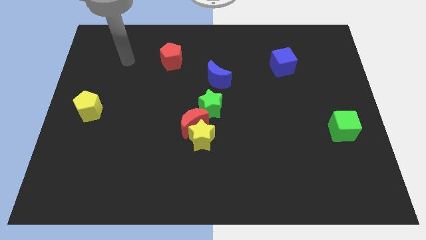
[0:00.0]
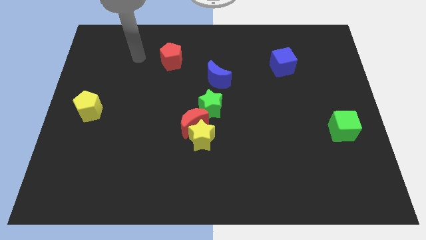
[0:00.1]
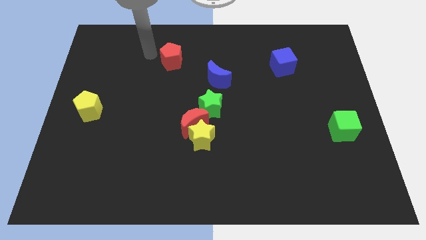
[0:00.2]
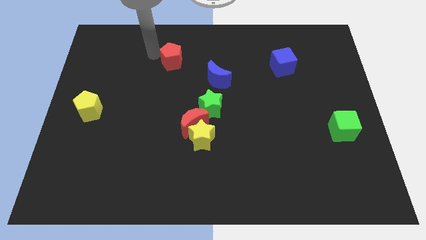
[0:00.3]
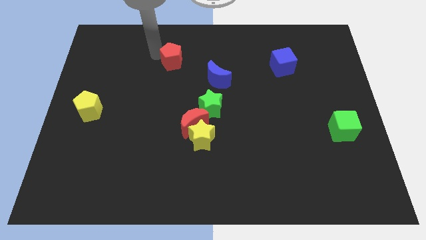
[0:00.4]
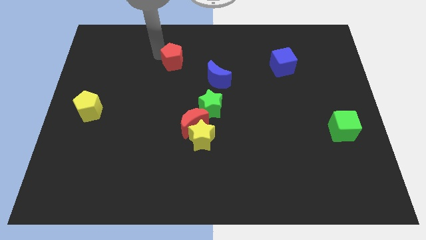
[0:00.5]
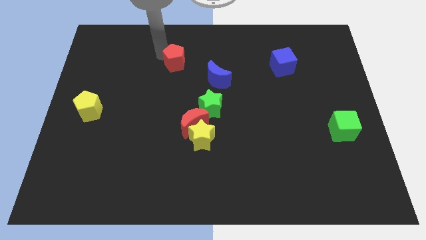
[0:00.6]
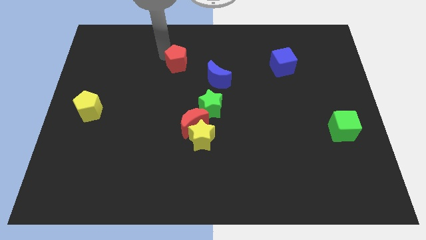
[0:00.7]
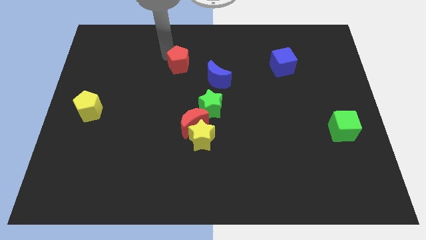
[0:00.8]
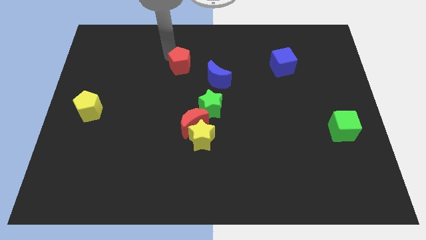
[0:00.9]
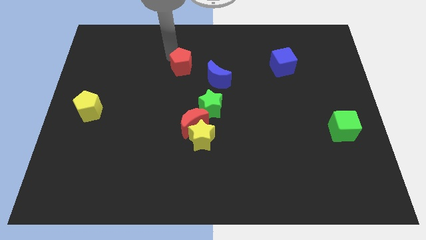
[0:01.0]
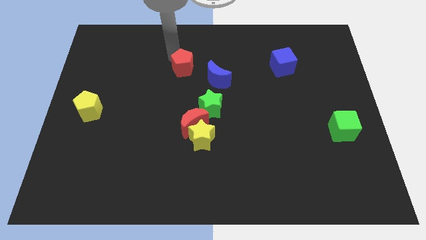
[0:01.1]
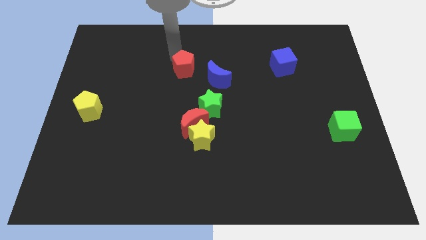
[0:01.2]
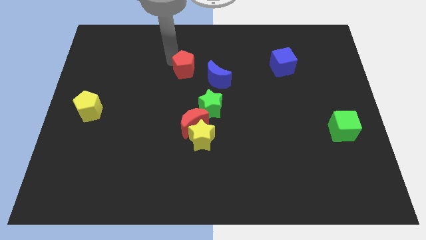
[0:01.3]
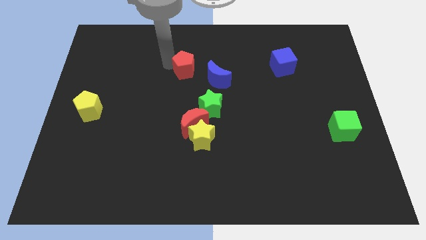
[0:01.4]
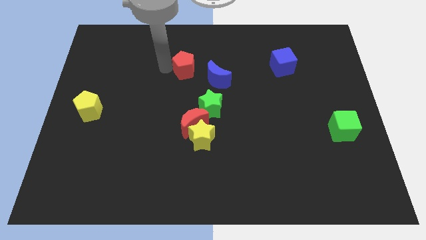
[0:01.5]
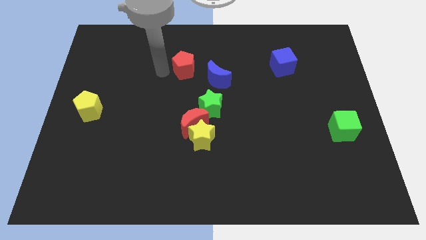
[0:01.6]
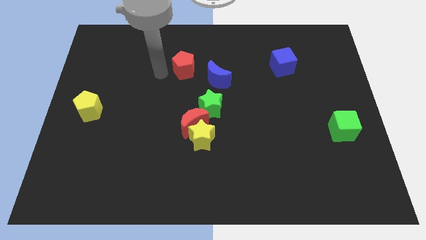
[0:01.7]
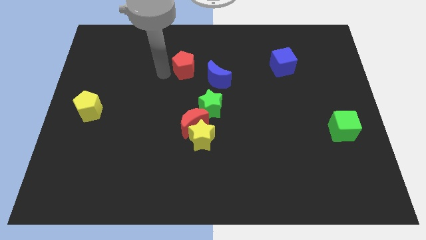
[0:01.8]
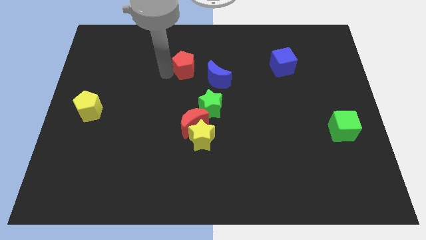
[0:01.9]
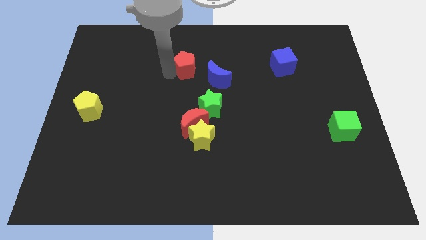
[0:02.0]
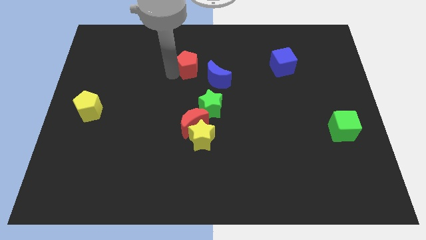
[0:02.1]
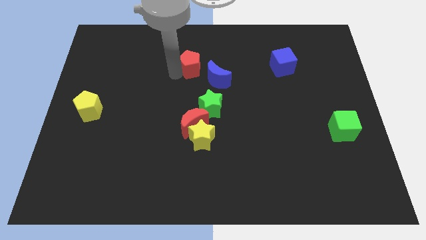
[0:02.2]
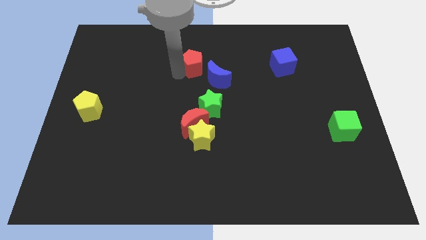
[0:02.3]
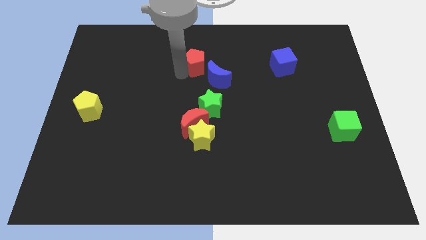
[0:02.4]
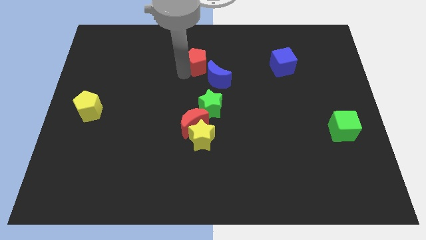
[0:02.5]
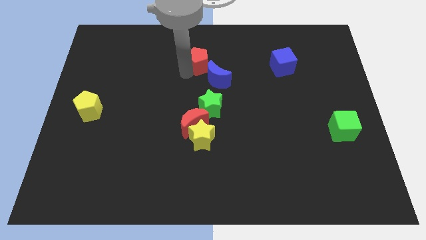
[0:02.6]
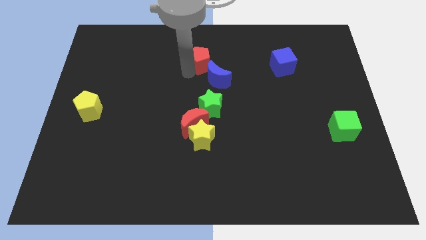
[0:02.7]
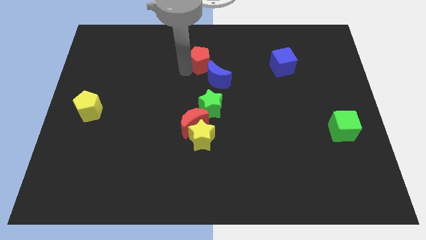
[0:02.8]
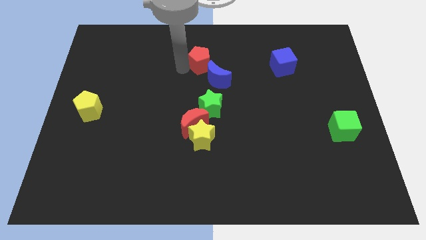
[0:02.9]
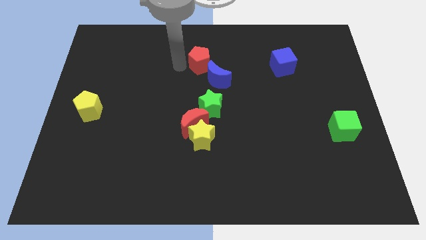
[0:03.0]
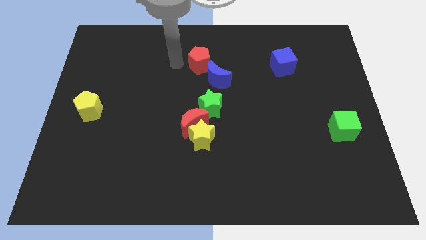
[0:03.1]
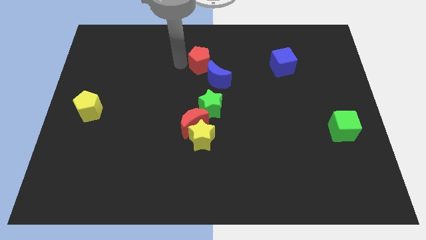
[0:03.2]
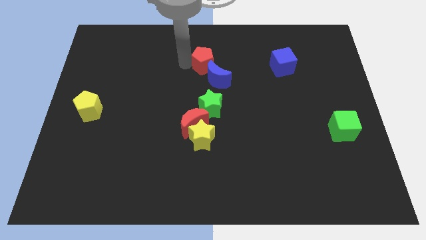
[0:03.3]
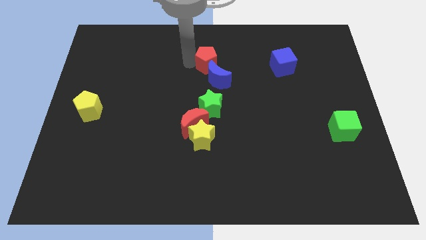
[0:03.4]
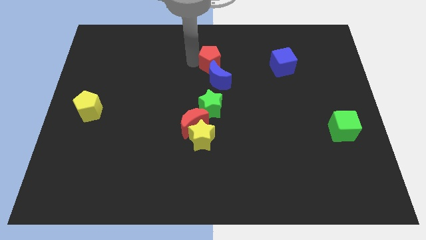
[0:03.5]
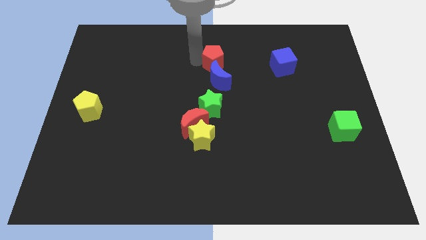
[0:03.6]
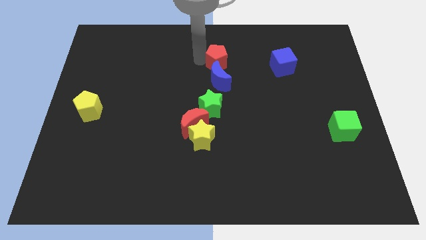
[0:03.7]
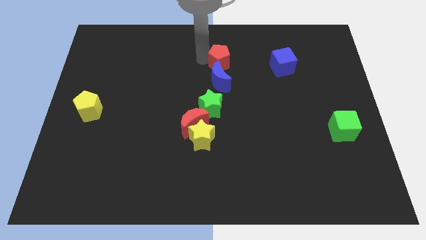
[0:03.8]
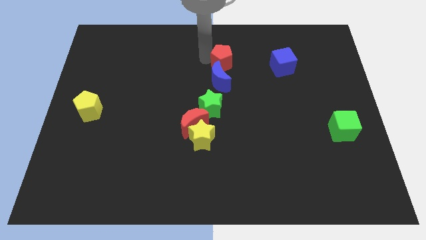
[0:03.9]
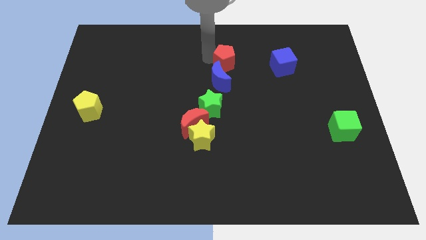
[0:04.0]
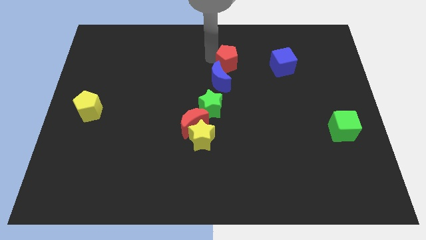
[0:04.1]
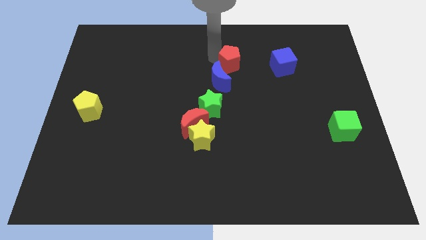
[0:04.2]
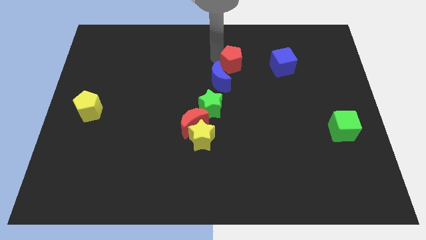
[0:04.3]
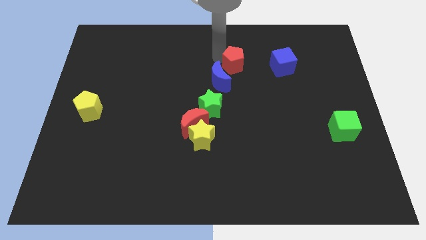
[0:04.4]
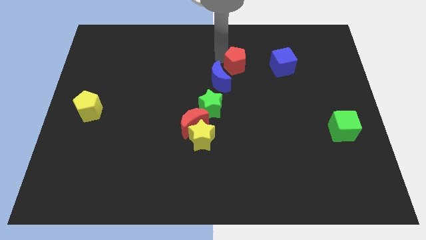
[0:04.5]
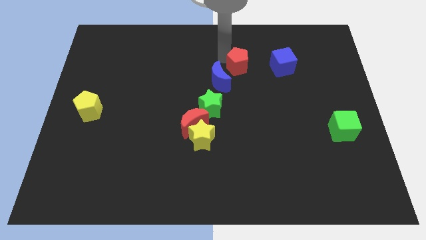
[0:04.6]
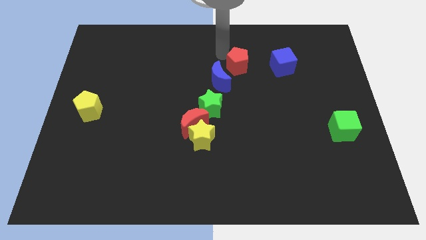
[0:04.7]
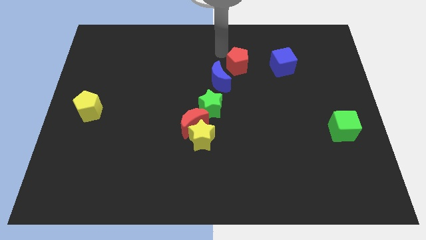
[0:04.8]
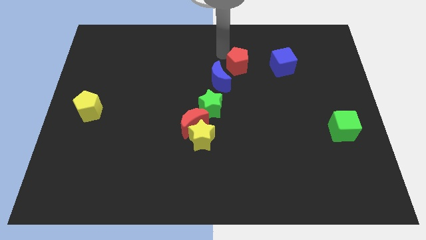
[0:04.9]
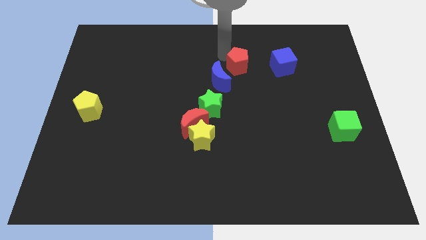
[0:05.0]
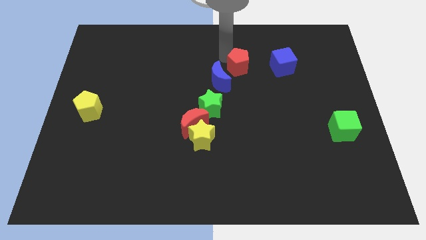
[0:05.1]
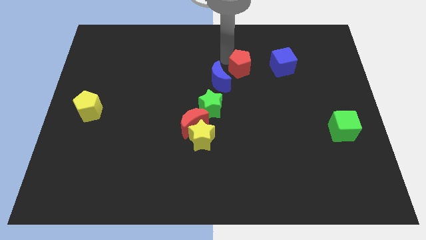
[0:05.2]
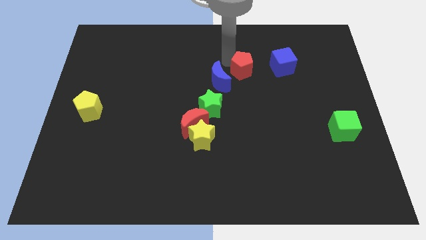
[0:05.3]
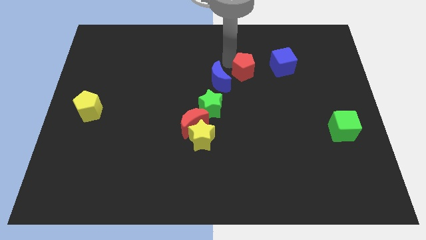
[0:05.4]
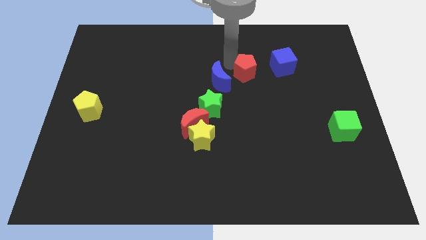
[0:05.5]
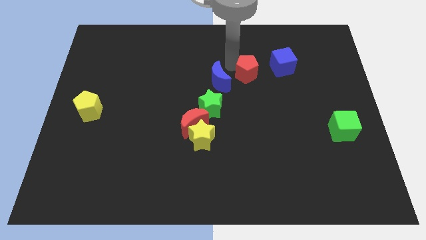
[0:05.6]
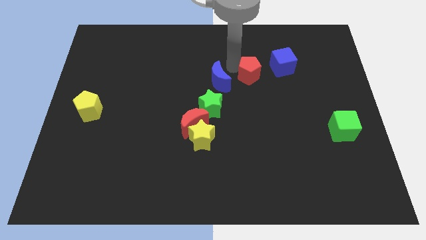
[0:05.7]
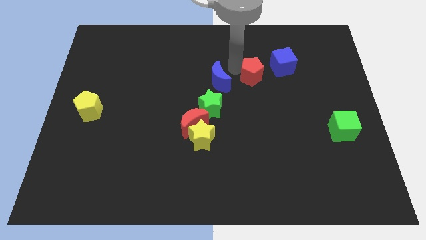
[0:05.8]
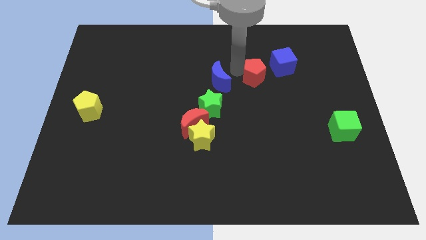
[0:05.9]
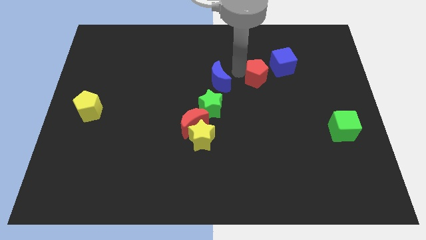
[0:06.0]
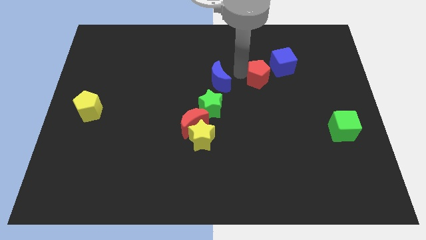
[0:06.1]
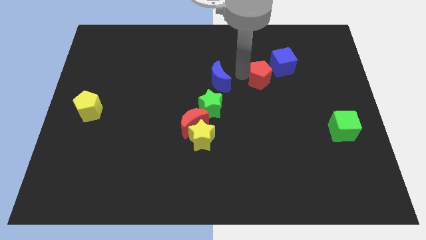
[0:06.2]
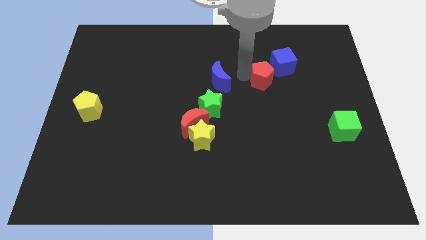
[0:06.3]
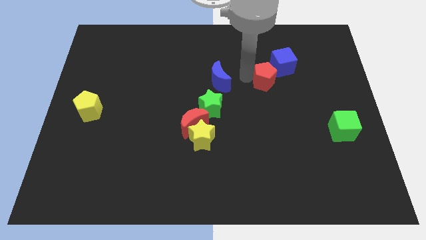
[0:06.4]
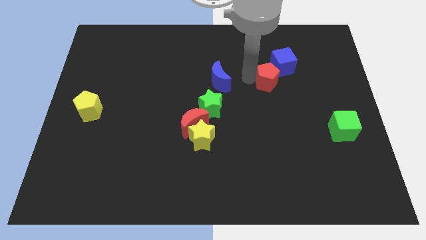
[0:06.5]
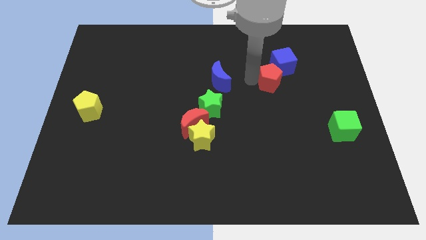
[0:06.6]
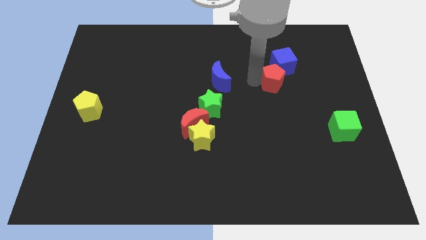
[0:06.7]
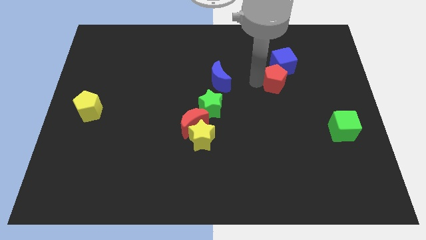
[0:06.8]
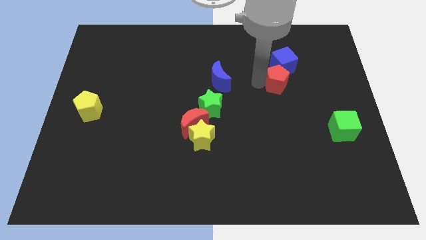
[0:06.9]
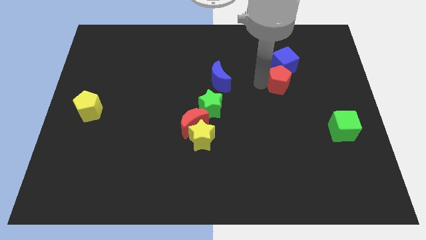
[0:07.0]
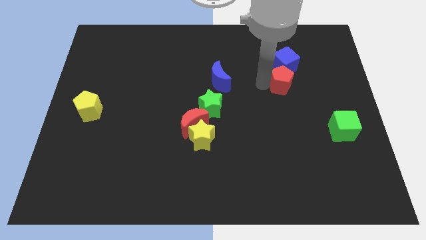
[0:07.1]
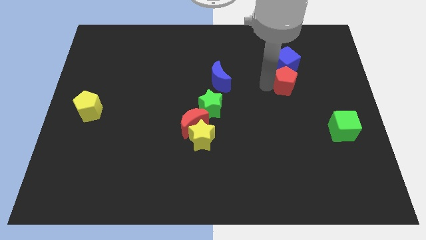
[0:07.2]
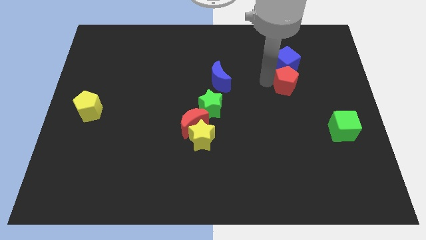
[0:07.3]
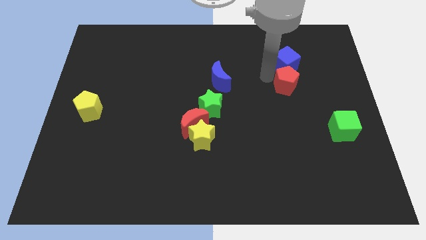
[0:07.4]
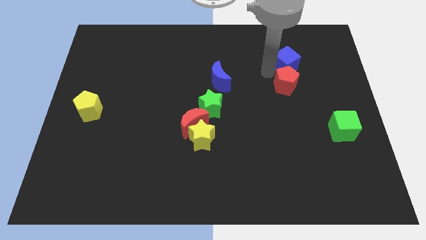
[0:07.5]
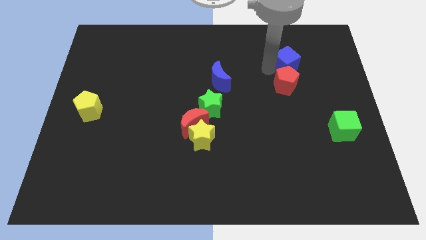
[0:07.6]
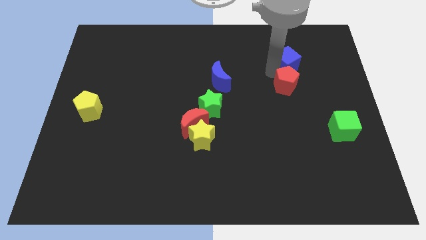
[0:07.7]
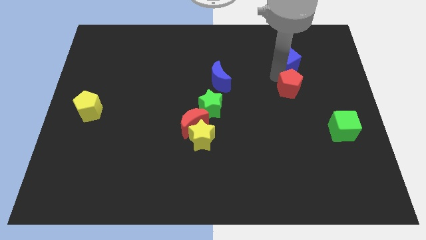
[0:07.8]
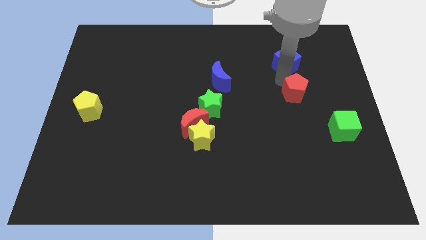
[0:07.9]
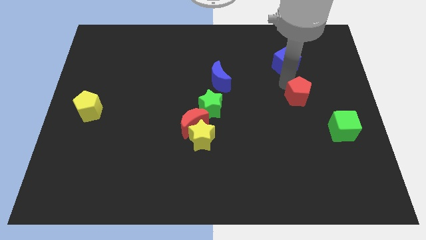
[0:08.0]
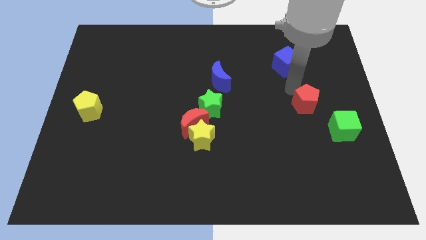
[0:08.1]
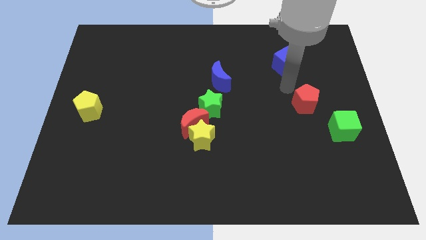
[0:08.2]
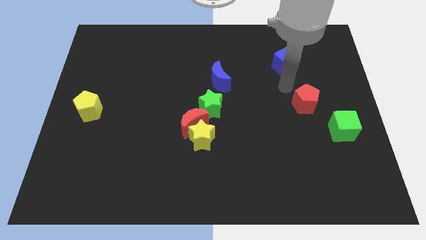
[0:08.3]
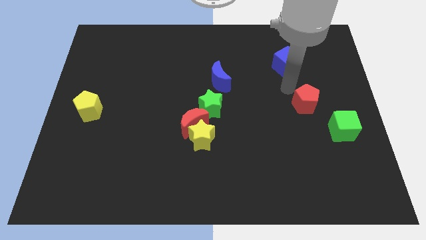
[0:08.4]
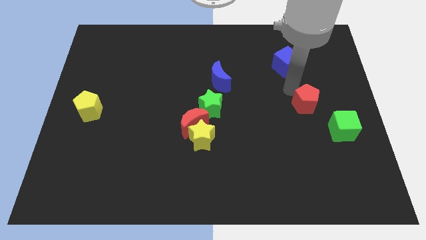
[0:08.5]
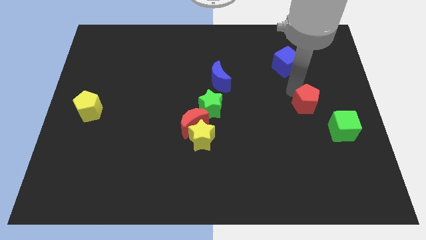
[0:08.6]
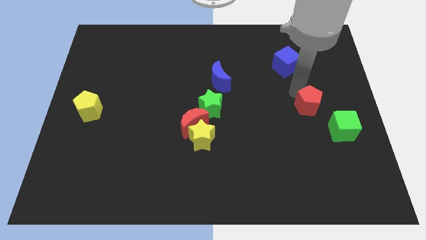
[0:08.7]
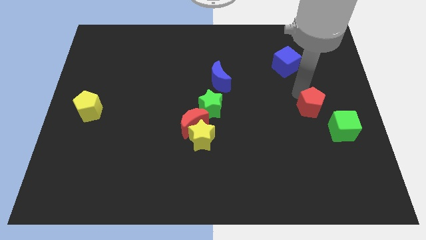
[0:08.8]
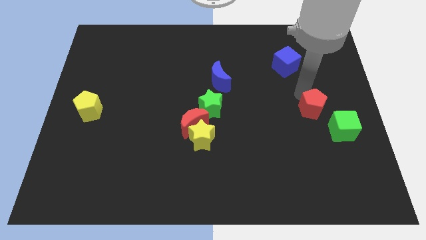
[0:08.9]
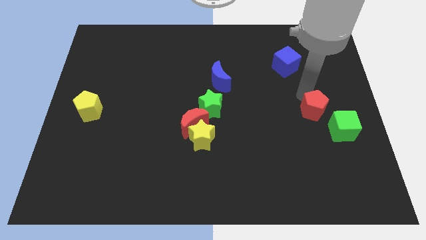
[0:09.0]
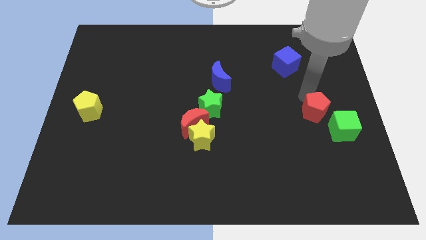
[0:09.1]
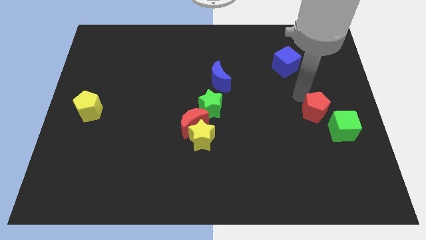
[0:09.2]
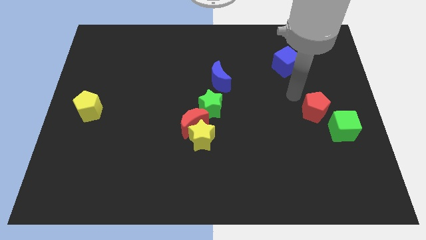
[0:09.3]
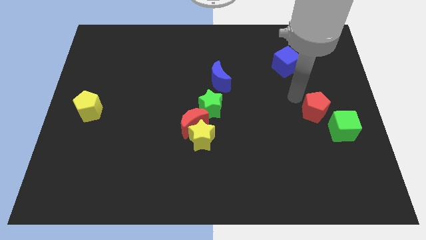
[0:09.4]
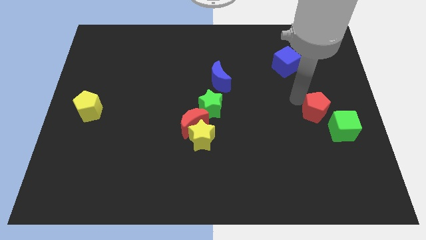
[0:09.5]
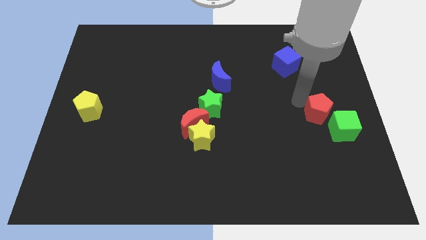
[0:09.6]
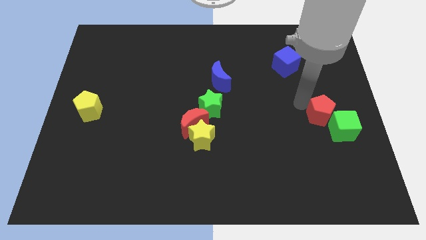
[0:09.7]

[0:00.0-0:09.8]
put the red pentagon close to the green cube
